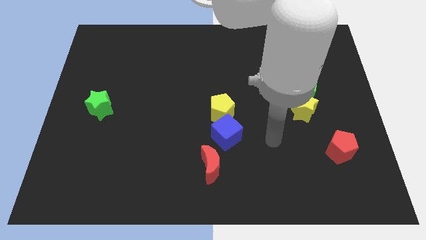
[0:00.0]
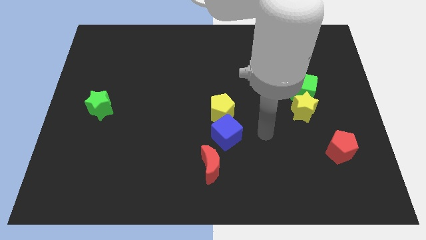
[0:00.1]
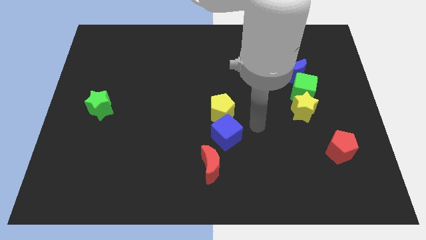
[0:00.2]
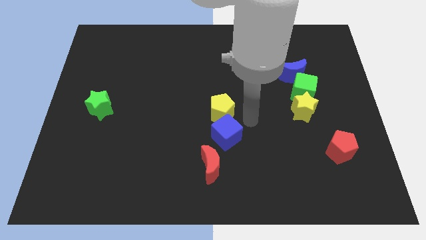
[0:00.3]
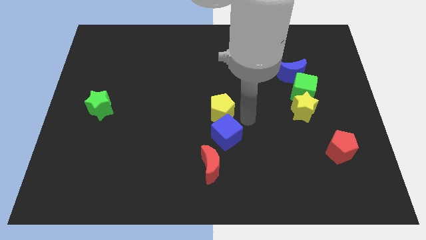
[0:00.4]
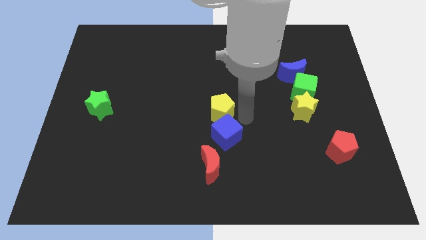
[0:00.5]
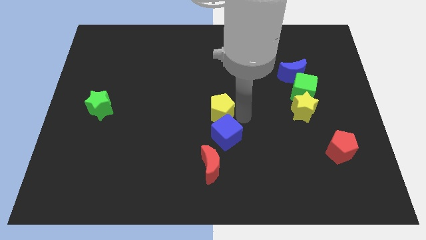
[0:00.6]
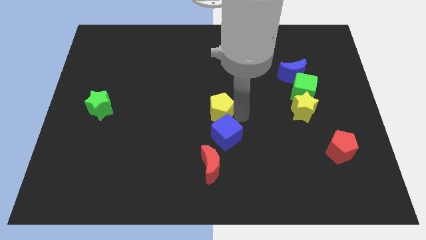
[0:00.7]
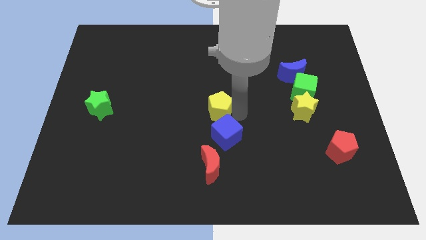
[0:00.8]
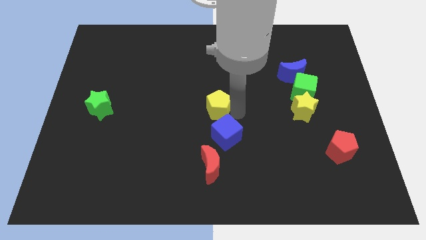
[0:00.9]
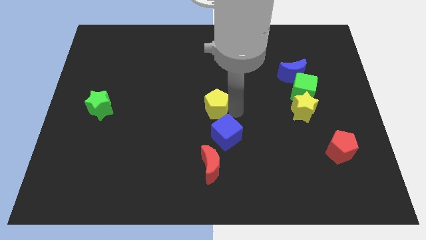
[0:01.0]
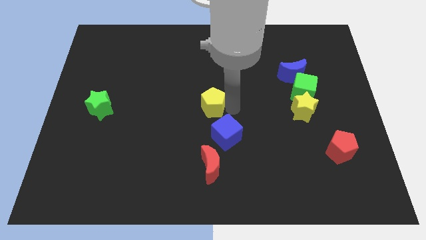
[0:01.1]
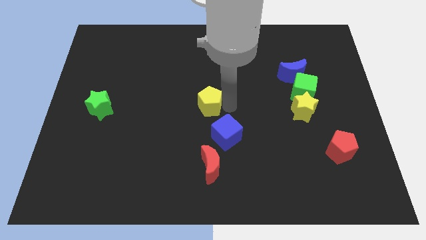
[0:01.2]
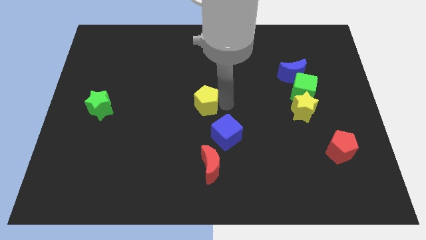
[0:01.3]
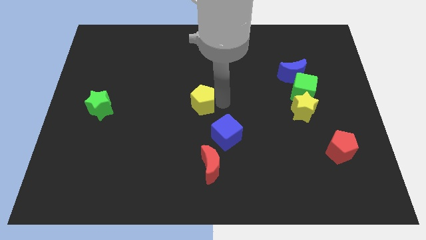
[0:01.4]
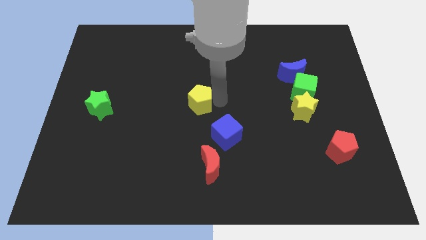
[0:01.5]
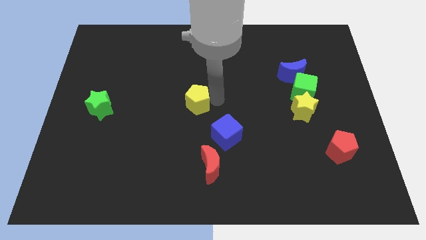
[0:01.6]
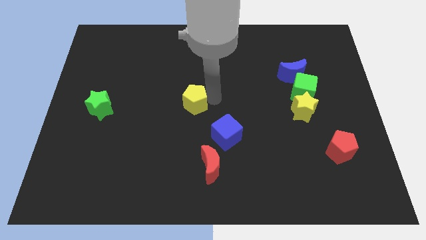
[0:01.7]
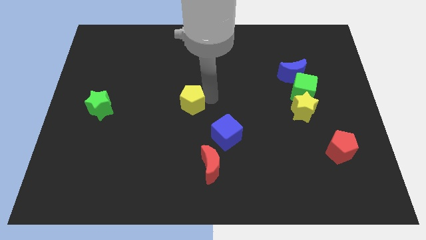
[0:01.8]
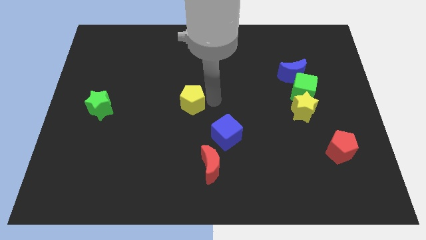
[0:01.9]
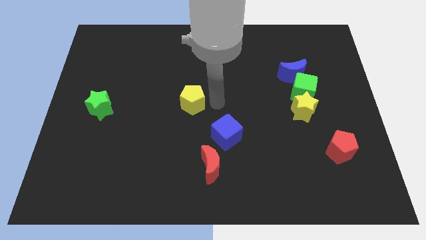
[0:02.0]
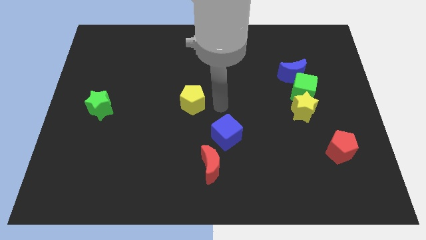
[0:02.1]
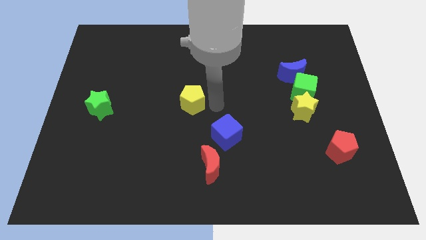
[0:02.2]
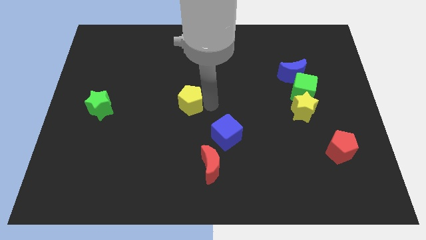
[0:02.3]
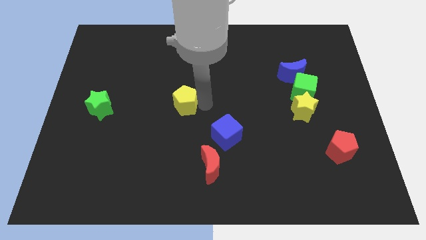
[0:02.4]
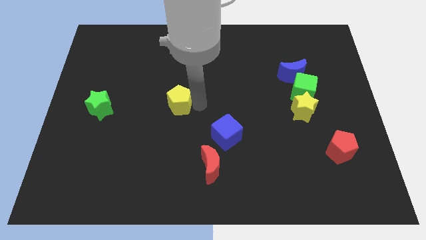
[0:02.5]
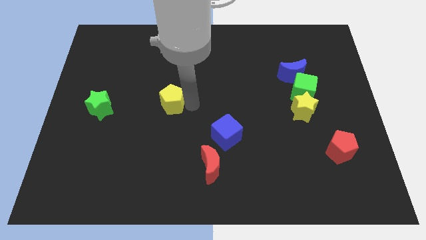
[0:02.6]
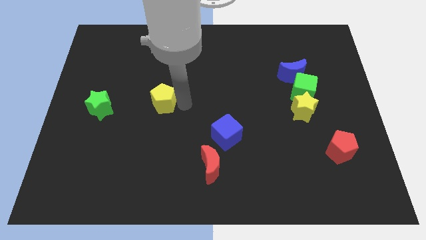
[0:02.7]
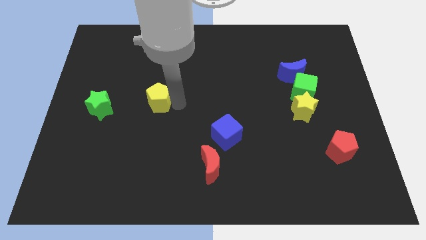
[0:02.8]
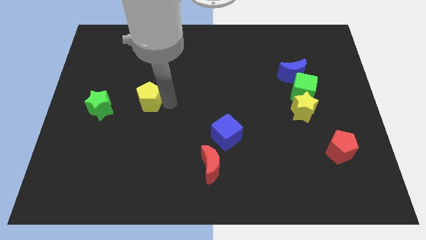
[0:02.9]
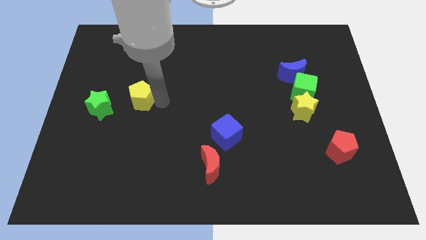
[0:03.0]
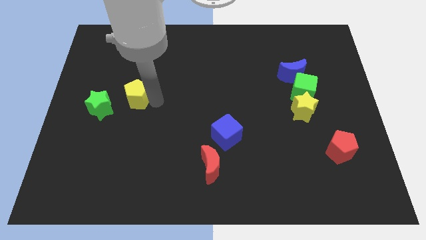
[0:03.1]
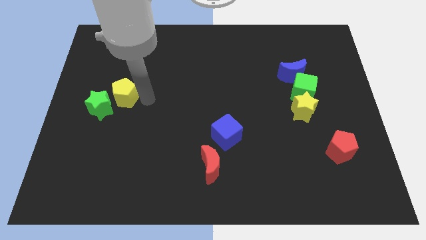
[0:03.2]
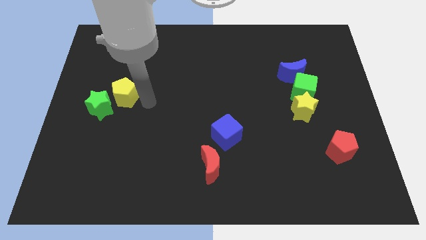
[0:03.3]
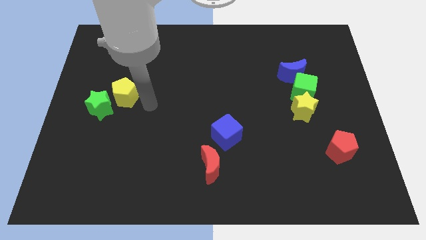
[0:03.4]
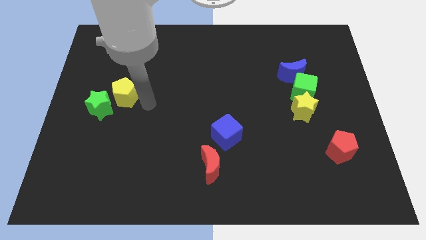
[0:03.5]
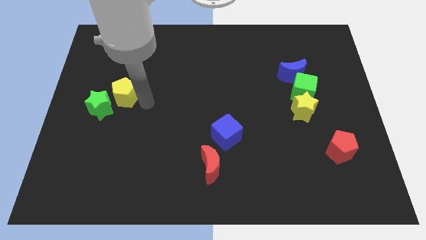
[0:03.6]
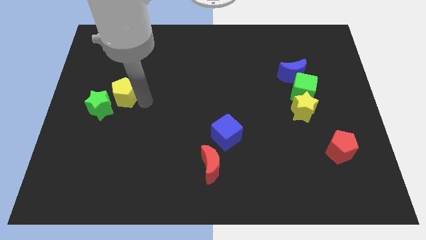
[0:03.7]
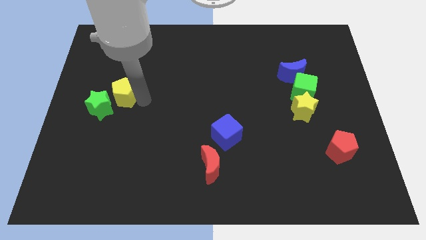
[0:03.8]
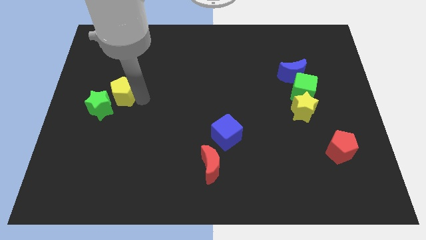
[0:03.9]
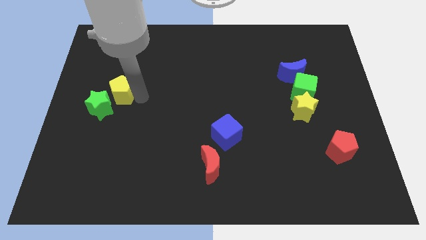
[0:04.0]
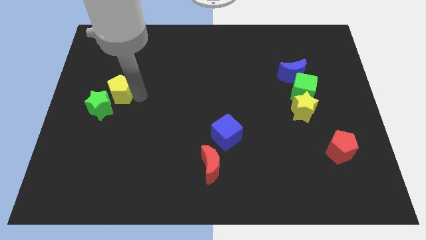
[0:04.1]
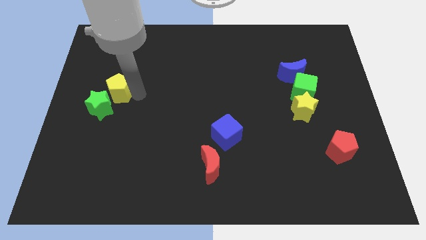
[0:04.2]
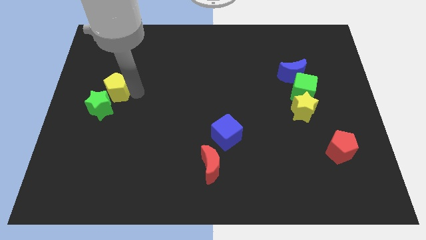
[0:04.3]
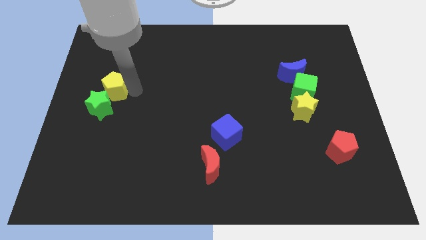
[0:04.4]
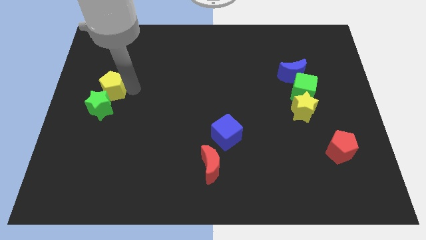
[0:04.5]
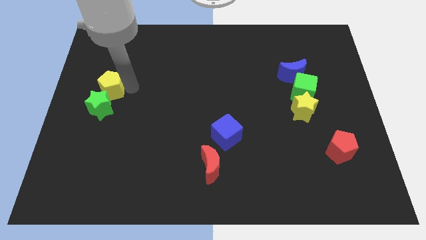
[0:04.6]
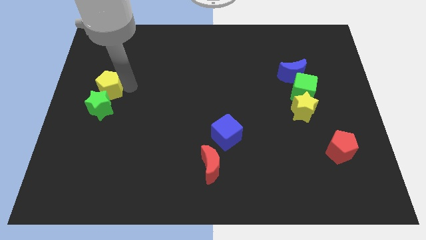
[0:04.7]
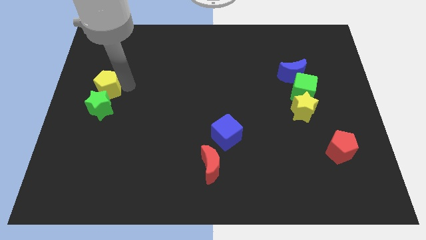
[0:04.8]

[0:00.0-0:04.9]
push the yellow pentagon to the left side

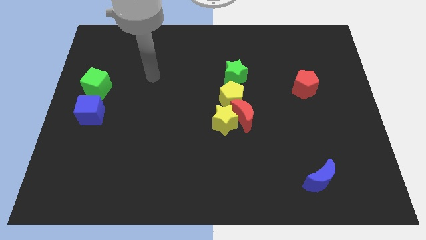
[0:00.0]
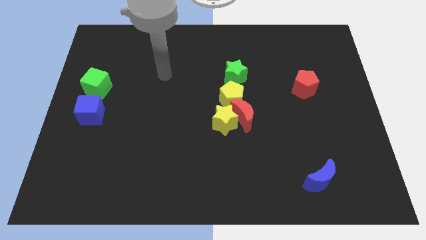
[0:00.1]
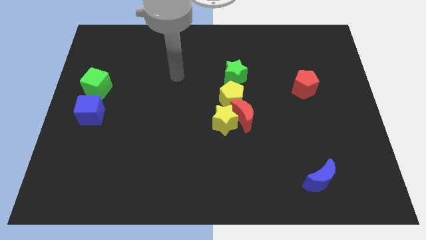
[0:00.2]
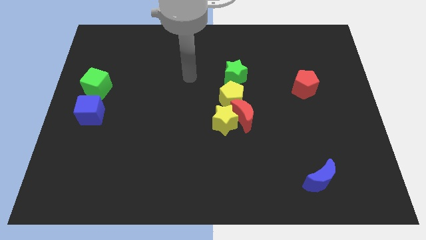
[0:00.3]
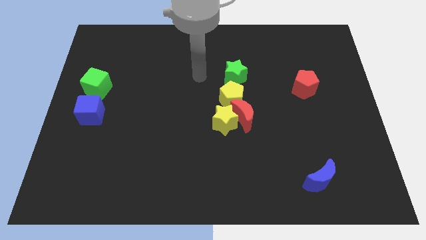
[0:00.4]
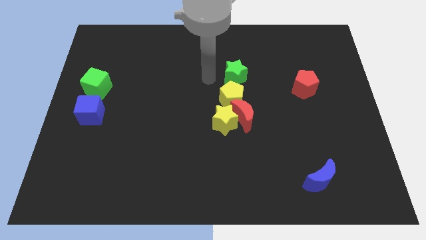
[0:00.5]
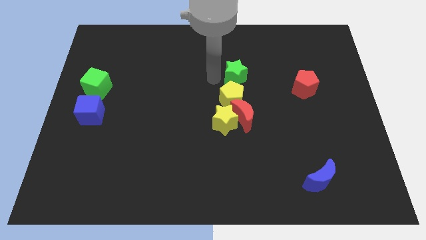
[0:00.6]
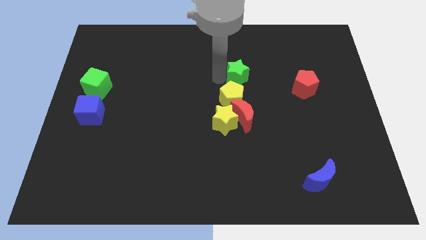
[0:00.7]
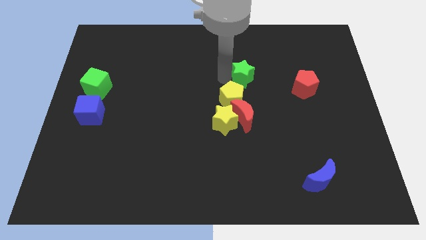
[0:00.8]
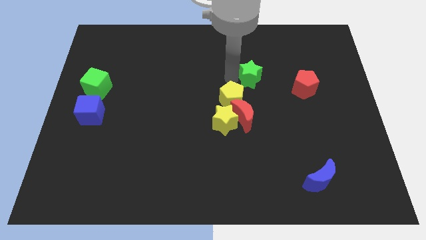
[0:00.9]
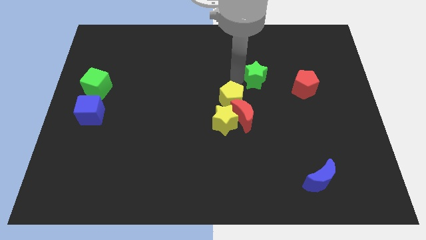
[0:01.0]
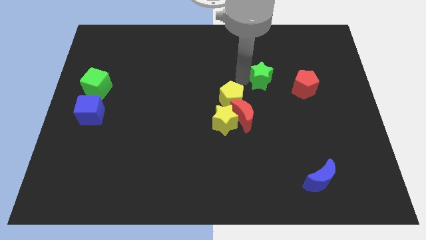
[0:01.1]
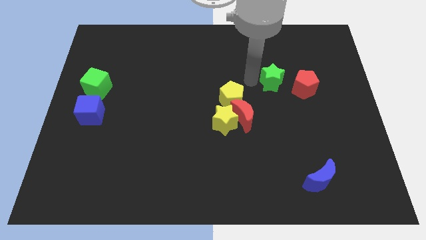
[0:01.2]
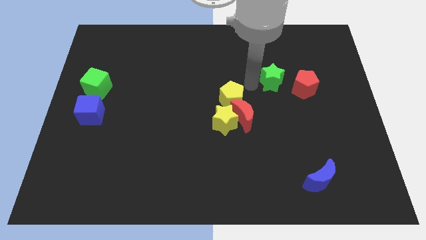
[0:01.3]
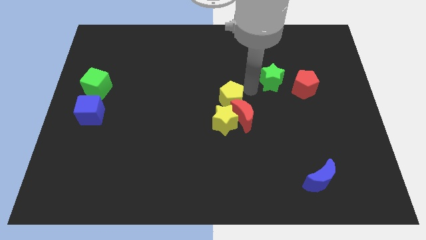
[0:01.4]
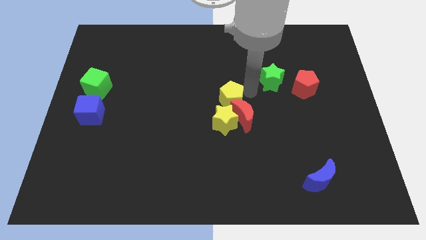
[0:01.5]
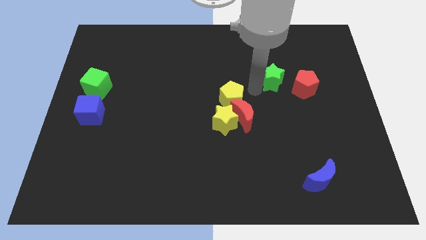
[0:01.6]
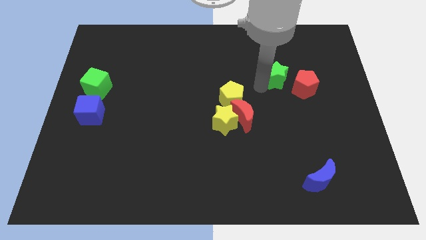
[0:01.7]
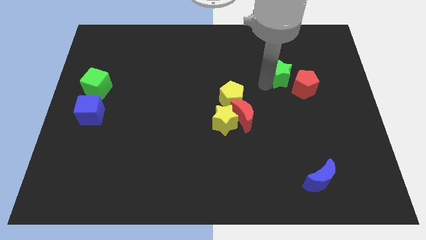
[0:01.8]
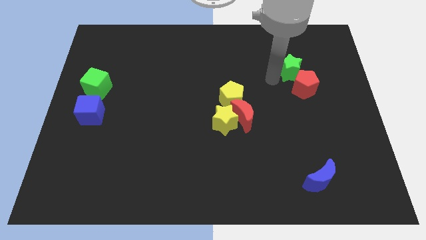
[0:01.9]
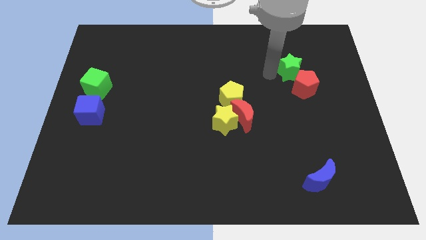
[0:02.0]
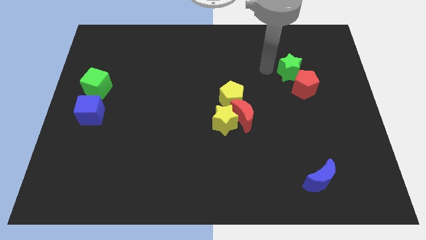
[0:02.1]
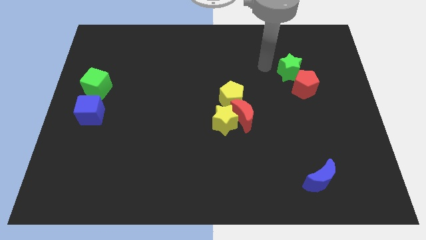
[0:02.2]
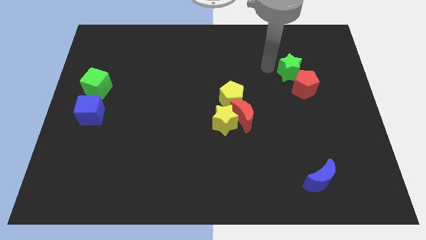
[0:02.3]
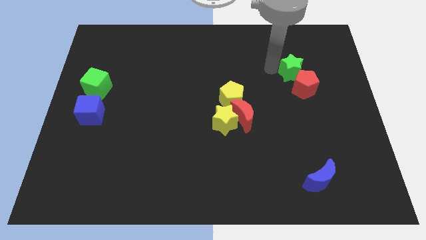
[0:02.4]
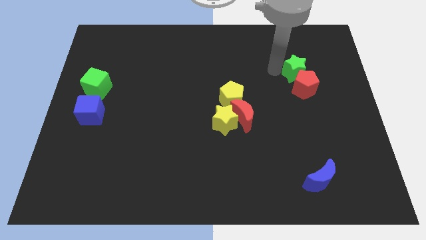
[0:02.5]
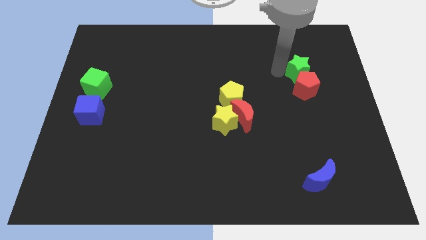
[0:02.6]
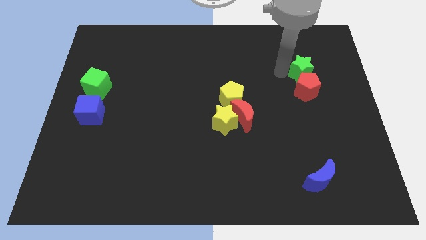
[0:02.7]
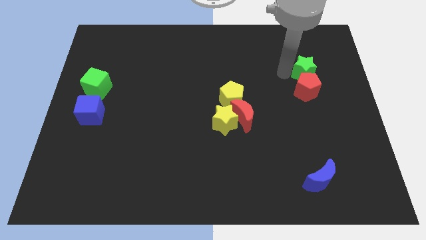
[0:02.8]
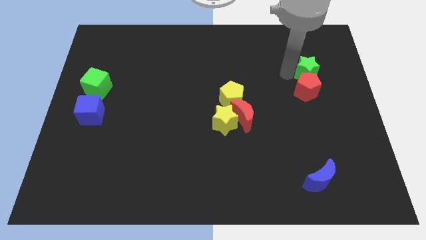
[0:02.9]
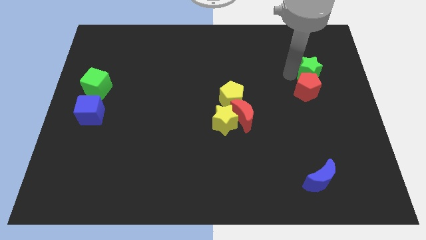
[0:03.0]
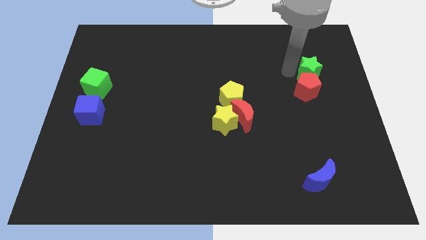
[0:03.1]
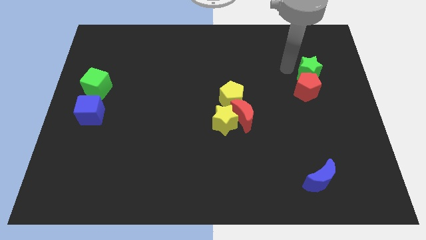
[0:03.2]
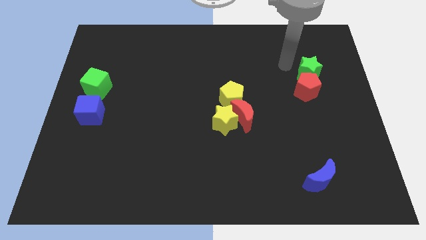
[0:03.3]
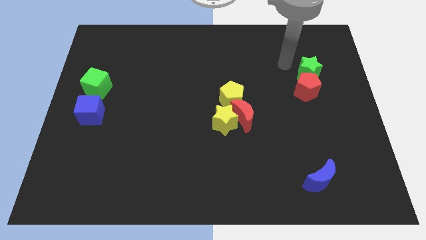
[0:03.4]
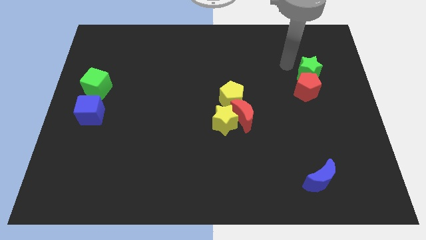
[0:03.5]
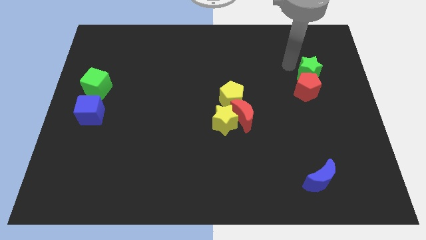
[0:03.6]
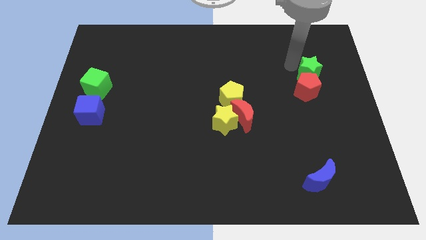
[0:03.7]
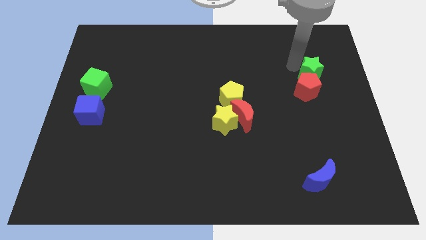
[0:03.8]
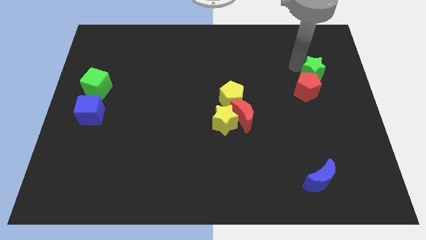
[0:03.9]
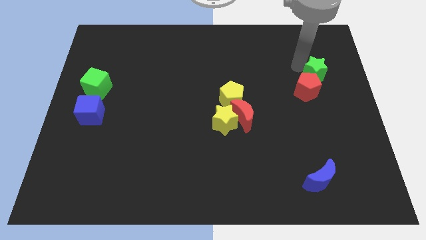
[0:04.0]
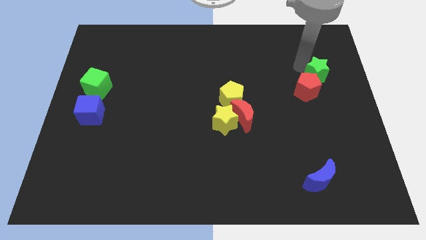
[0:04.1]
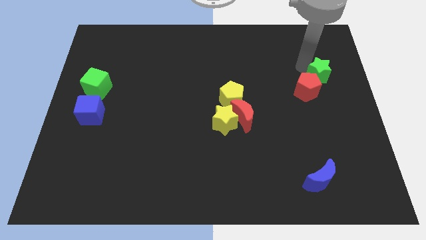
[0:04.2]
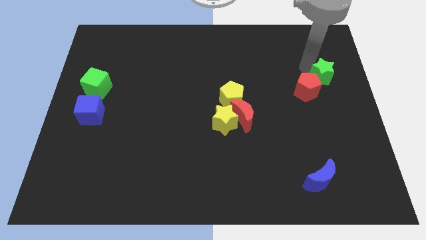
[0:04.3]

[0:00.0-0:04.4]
slide the green star to the center right
